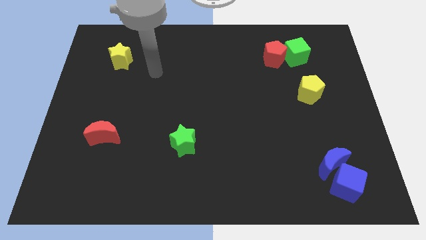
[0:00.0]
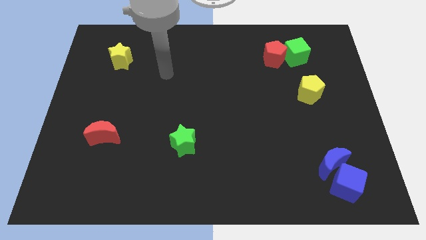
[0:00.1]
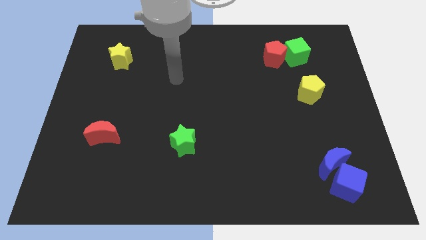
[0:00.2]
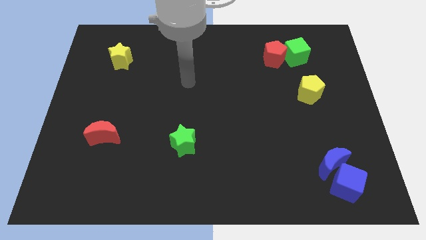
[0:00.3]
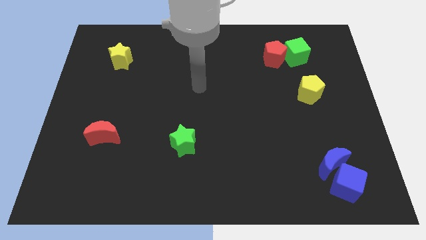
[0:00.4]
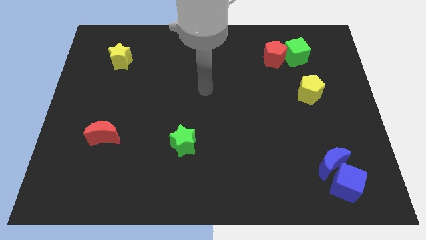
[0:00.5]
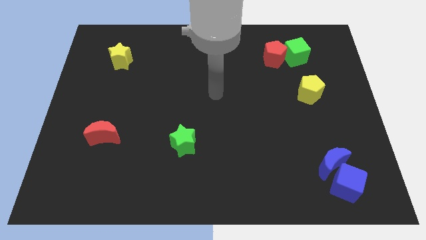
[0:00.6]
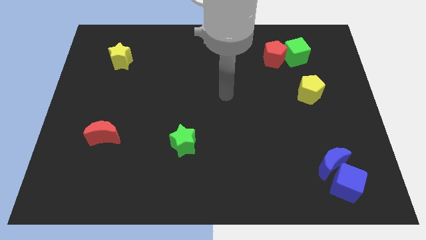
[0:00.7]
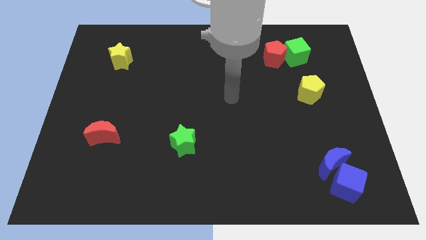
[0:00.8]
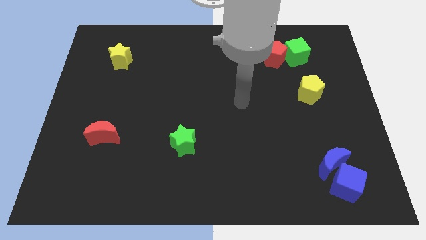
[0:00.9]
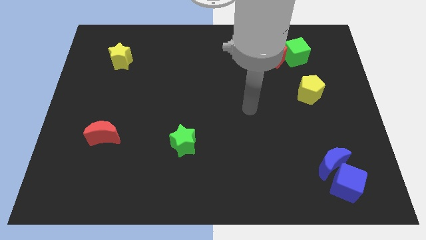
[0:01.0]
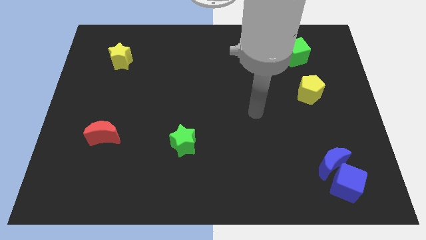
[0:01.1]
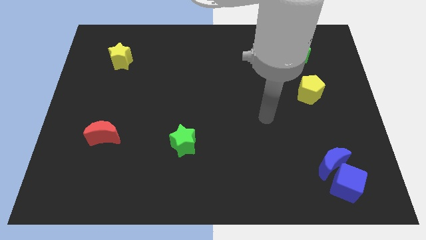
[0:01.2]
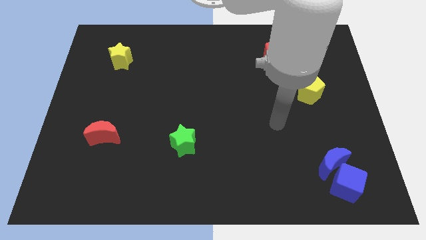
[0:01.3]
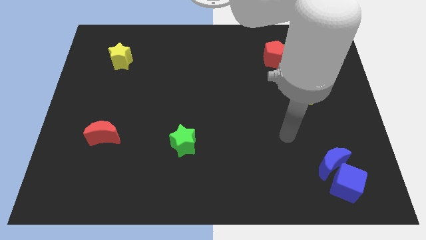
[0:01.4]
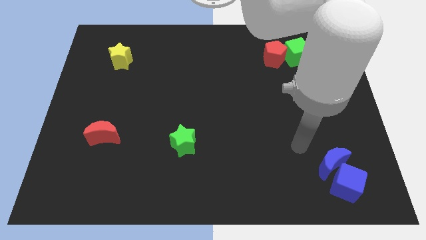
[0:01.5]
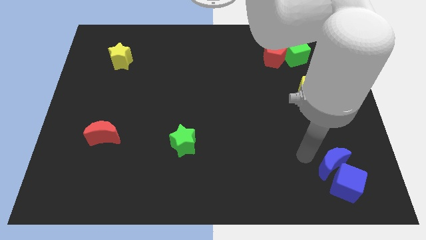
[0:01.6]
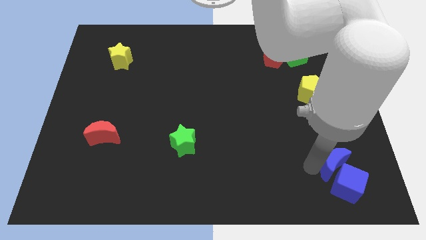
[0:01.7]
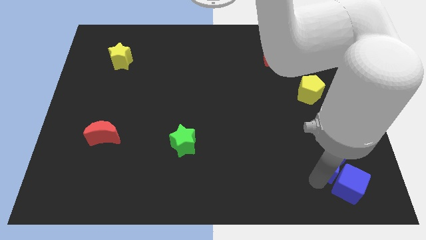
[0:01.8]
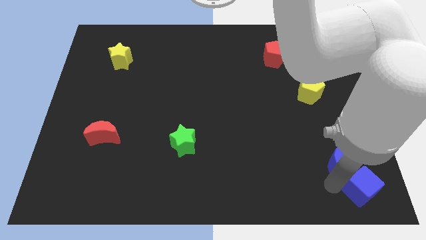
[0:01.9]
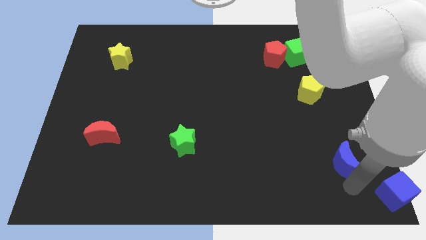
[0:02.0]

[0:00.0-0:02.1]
move the blue moon away from the blue cube

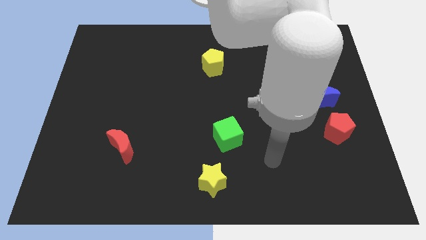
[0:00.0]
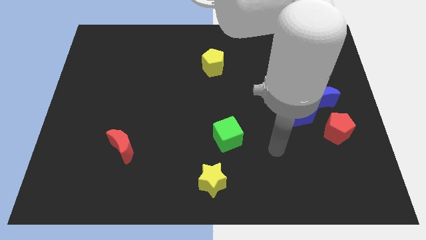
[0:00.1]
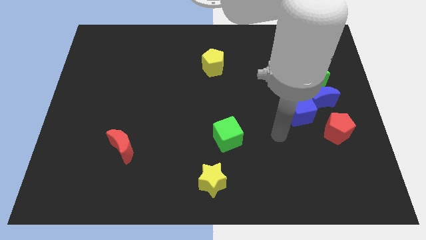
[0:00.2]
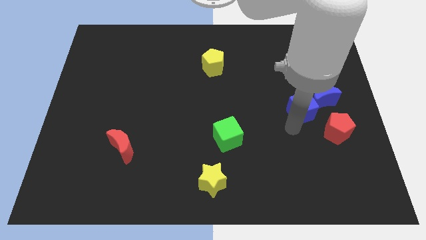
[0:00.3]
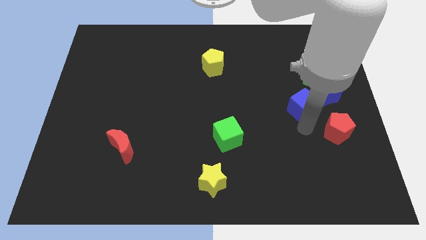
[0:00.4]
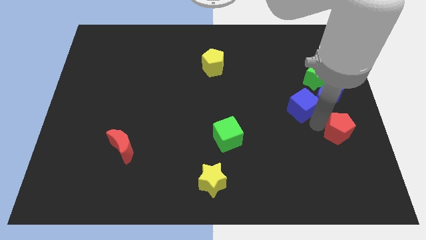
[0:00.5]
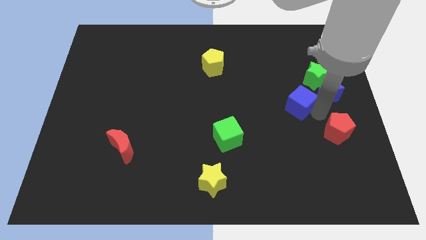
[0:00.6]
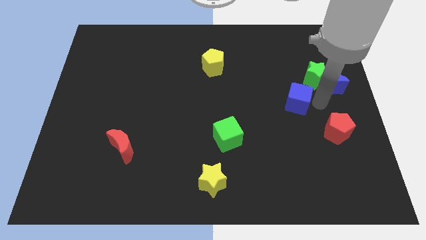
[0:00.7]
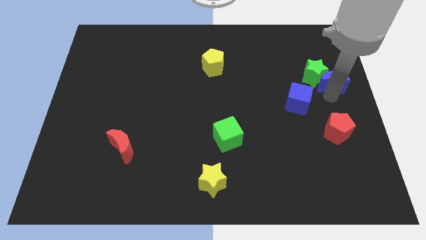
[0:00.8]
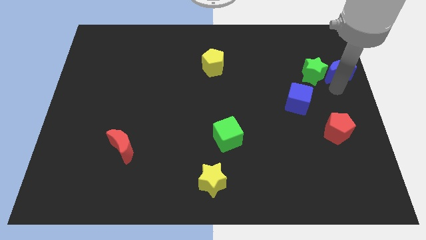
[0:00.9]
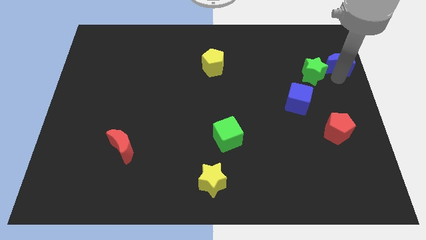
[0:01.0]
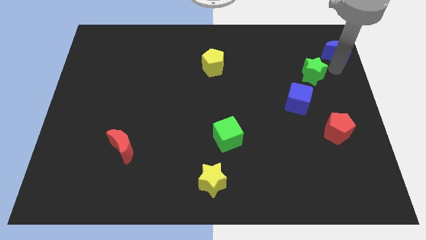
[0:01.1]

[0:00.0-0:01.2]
move the green star away from the blue moon

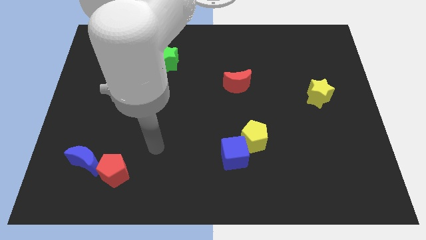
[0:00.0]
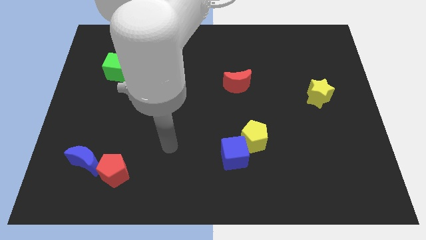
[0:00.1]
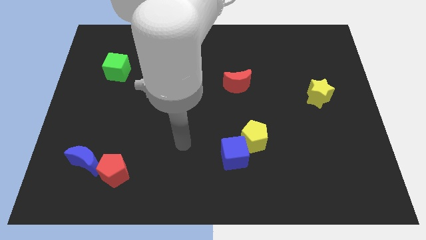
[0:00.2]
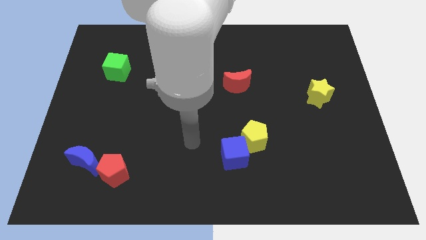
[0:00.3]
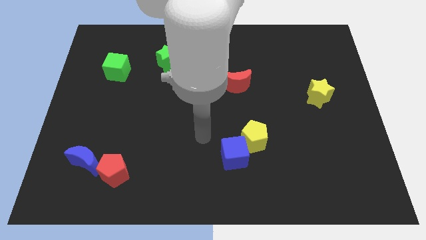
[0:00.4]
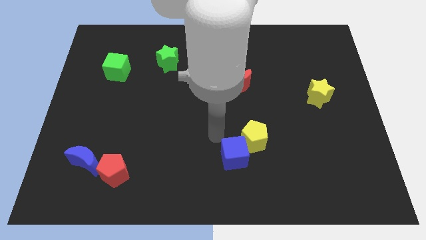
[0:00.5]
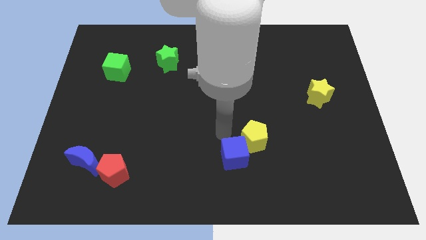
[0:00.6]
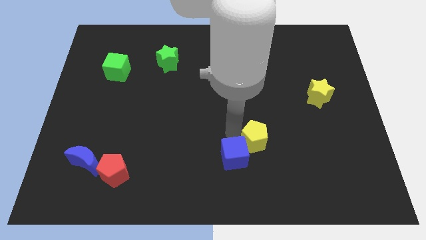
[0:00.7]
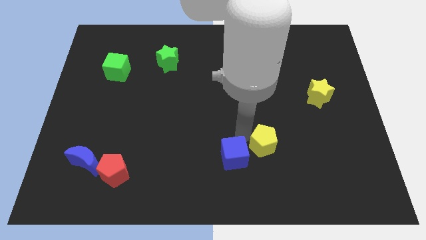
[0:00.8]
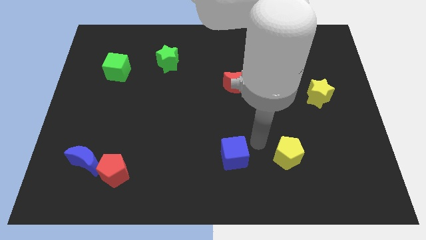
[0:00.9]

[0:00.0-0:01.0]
separate the blue cube from the yellow pentagon

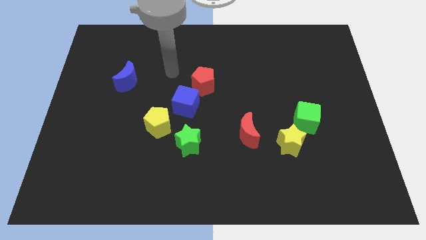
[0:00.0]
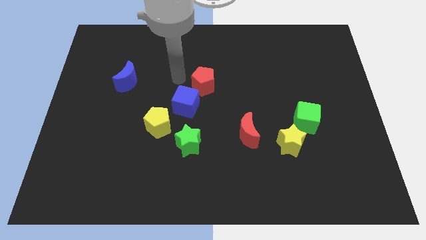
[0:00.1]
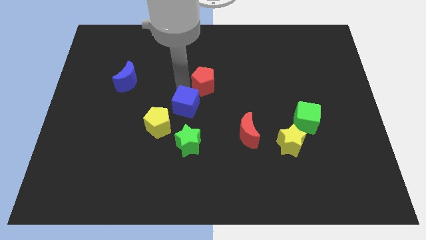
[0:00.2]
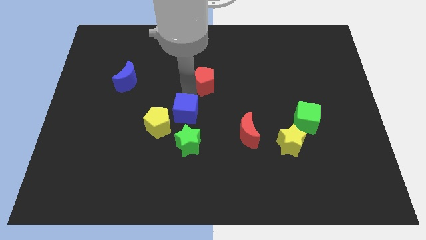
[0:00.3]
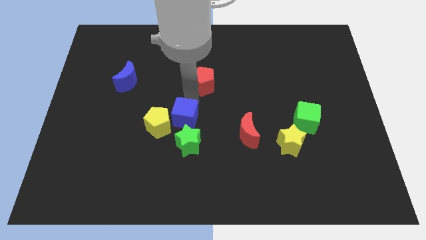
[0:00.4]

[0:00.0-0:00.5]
pull the red pentagon apart from the blue cube

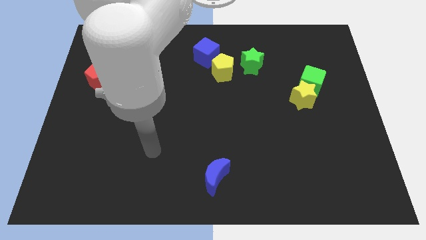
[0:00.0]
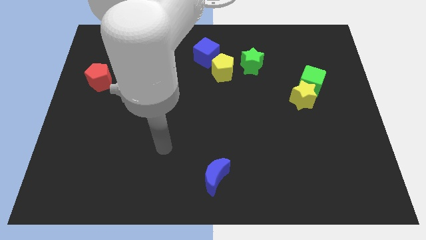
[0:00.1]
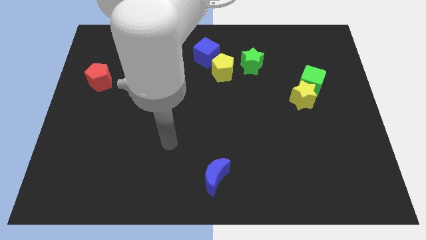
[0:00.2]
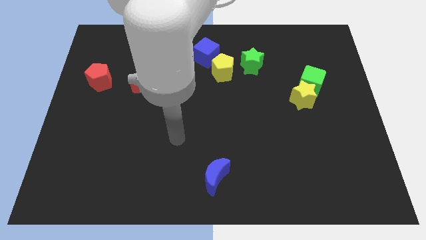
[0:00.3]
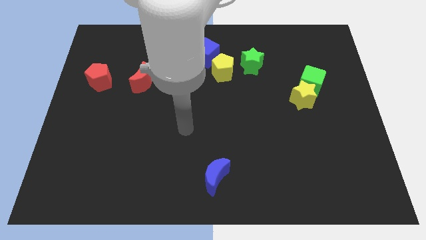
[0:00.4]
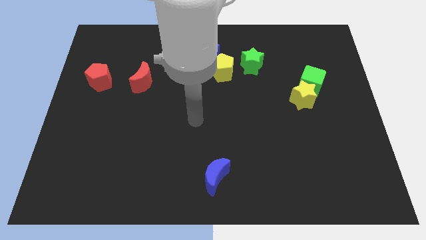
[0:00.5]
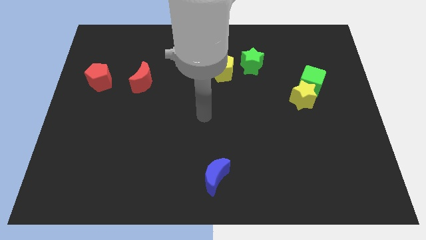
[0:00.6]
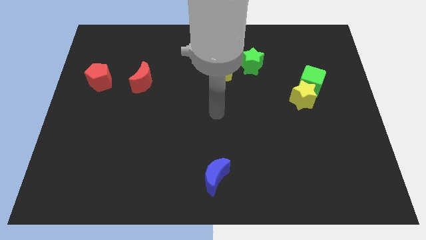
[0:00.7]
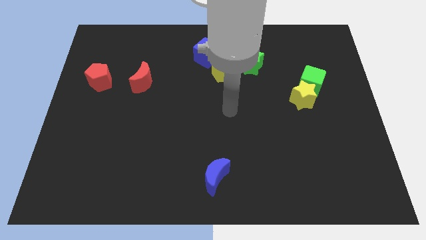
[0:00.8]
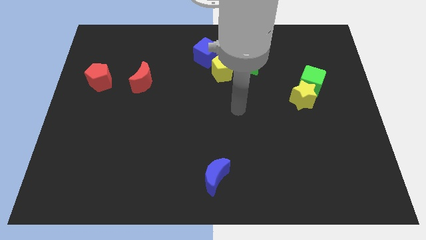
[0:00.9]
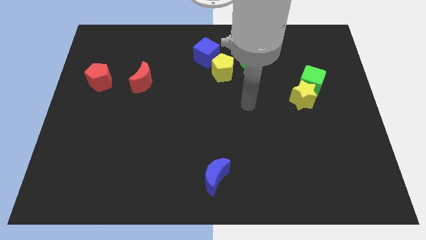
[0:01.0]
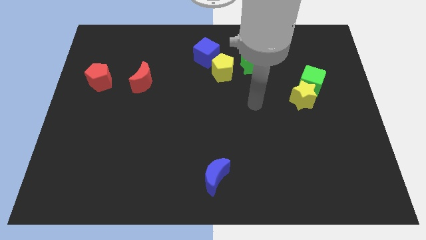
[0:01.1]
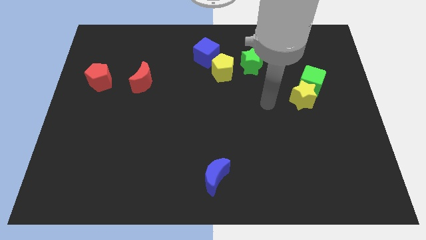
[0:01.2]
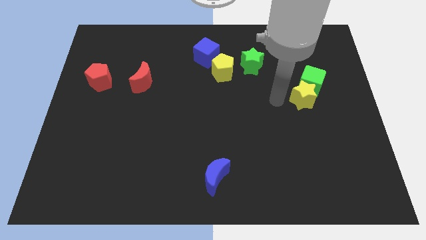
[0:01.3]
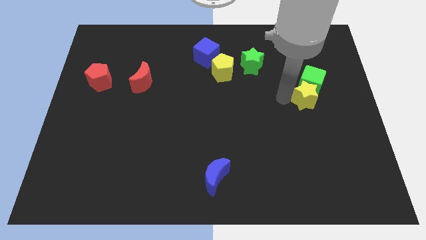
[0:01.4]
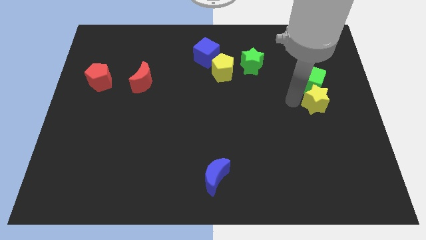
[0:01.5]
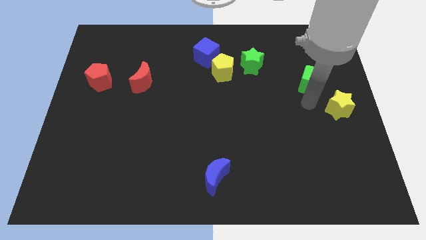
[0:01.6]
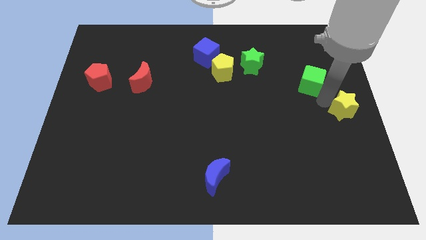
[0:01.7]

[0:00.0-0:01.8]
pull the green cube apart from the yellow star

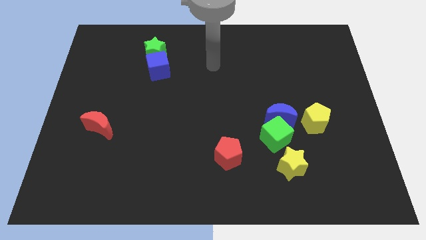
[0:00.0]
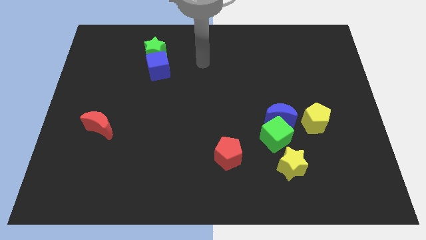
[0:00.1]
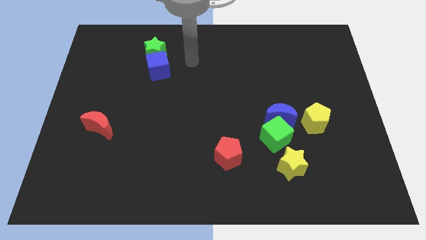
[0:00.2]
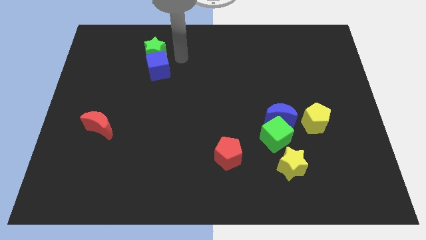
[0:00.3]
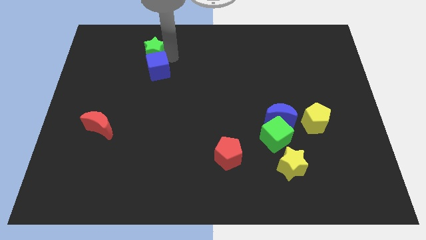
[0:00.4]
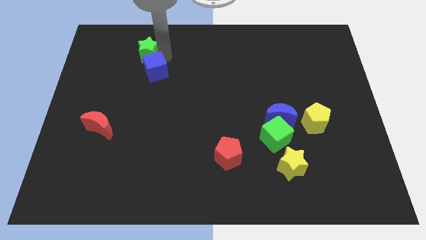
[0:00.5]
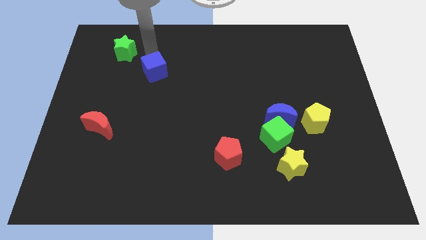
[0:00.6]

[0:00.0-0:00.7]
move the blue cube away from the green star

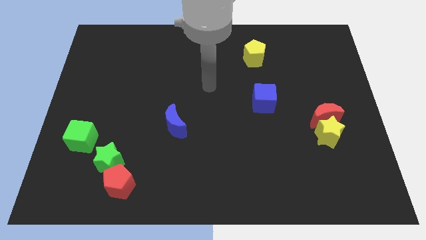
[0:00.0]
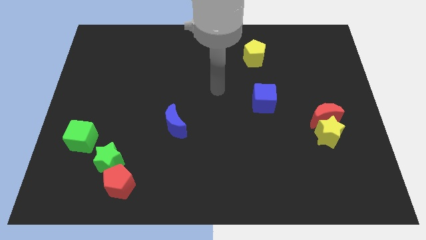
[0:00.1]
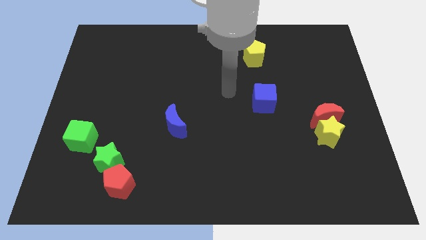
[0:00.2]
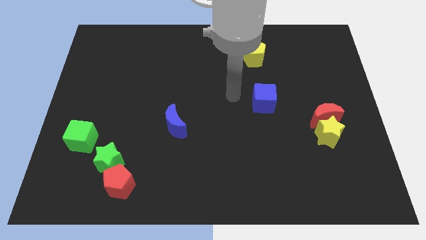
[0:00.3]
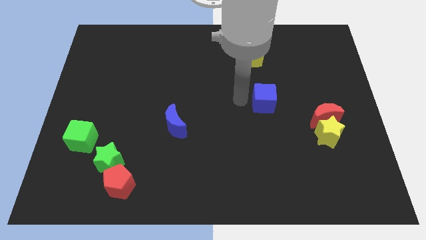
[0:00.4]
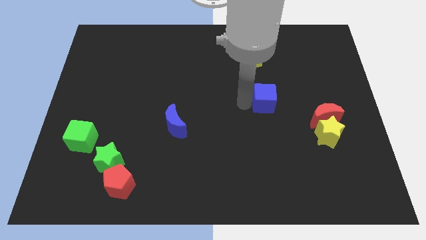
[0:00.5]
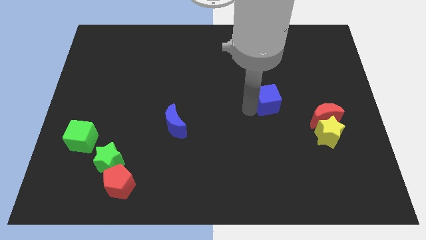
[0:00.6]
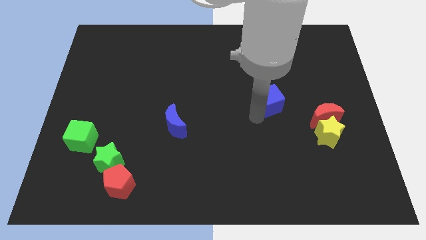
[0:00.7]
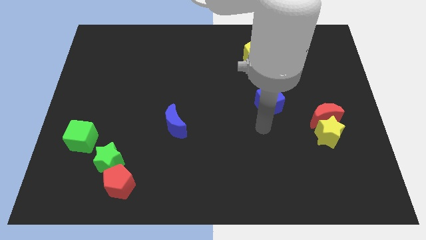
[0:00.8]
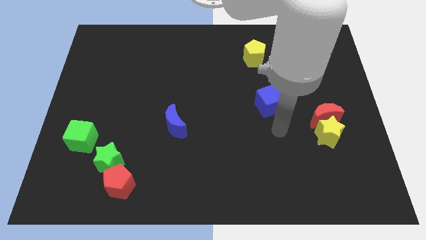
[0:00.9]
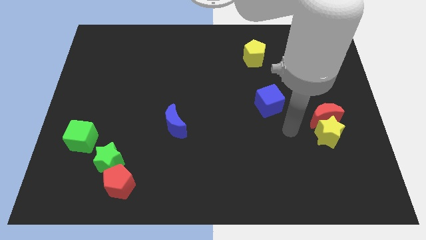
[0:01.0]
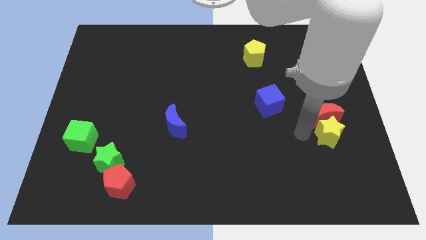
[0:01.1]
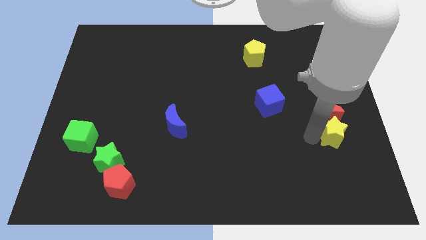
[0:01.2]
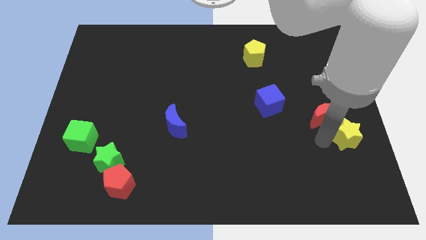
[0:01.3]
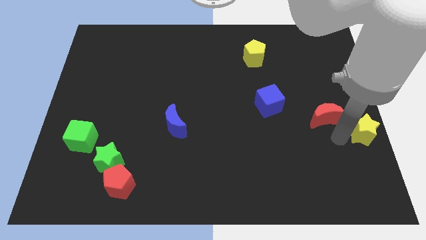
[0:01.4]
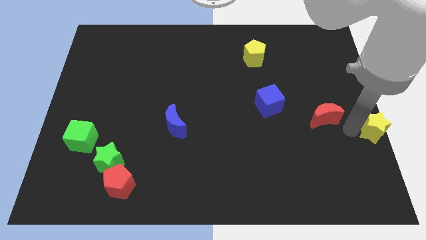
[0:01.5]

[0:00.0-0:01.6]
move the red moon away from the yellow star

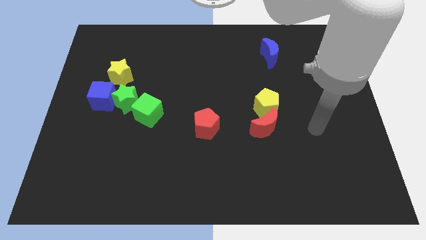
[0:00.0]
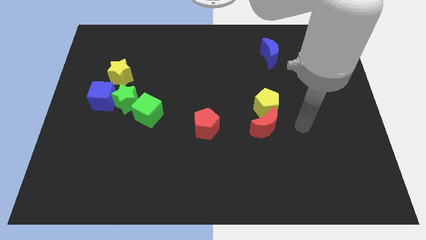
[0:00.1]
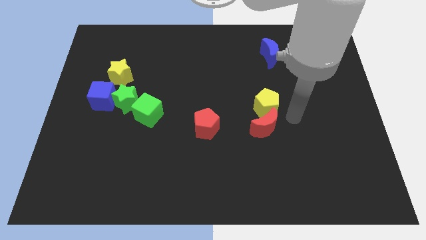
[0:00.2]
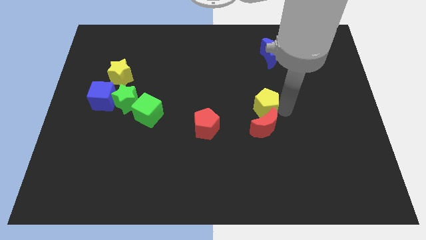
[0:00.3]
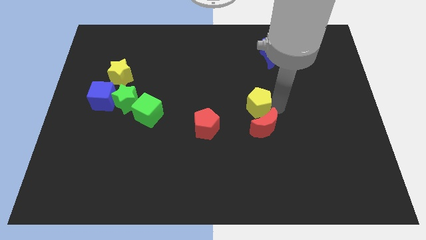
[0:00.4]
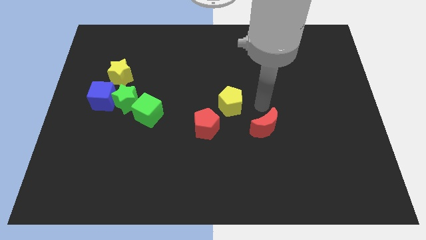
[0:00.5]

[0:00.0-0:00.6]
pull the red moon apart from the yellow pentagon
